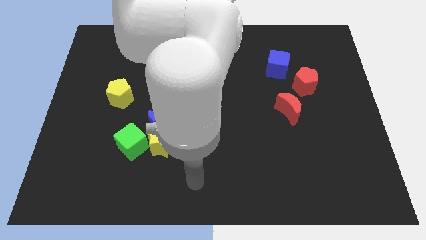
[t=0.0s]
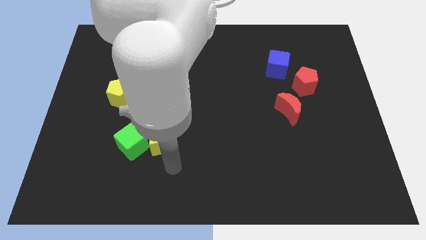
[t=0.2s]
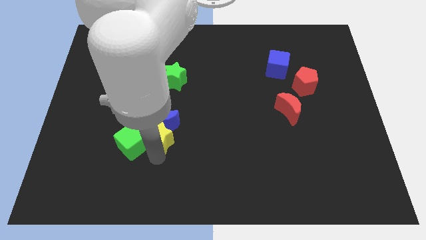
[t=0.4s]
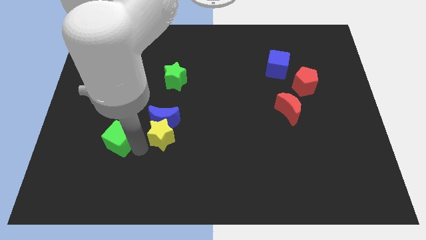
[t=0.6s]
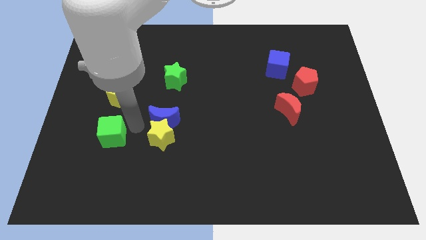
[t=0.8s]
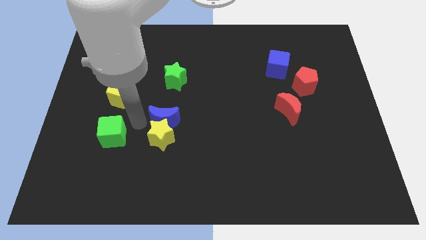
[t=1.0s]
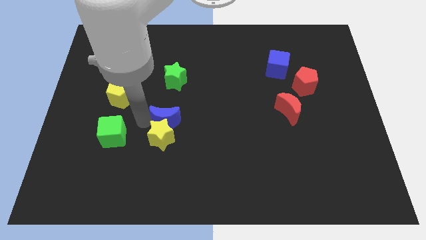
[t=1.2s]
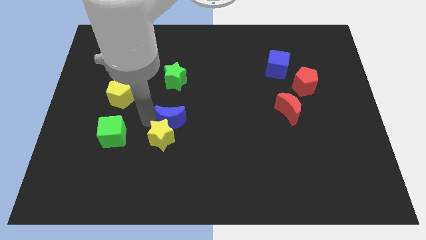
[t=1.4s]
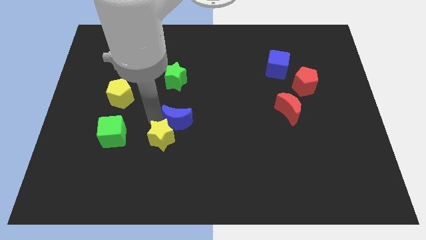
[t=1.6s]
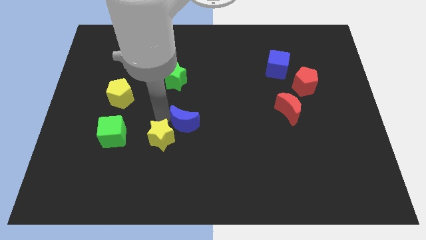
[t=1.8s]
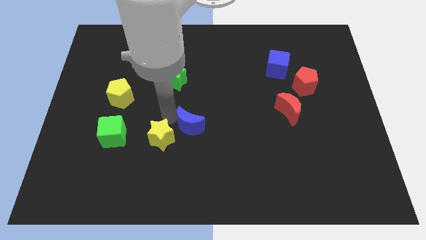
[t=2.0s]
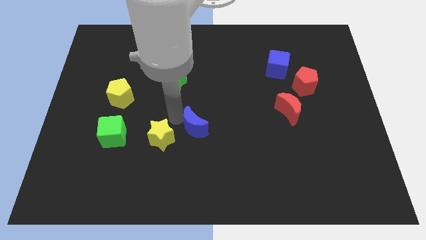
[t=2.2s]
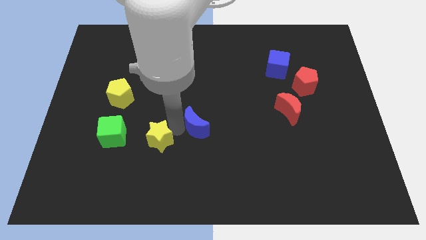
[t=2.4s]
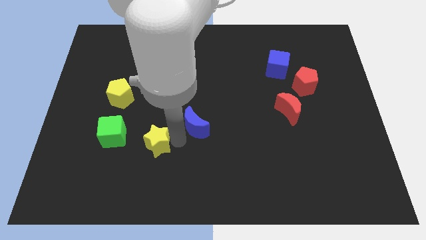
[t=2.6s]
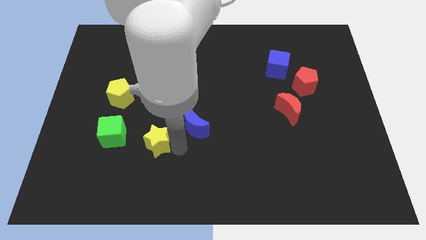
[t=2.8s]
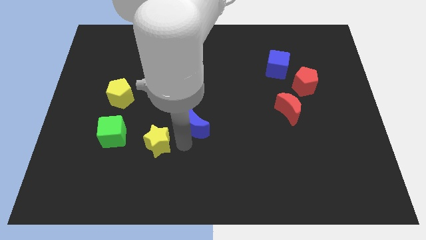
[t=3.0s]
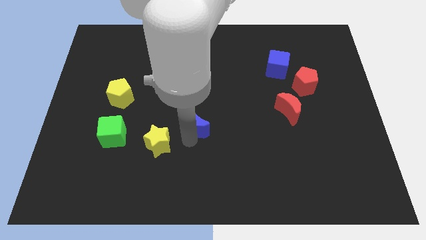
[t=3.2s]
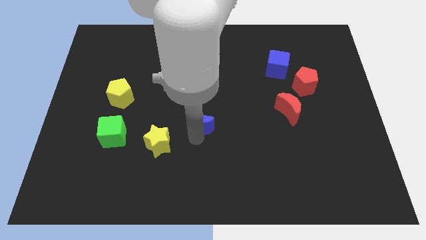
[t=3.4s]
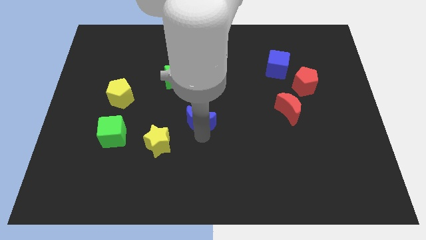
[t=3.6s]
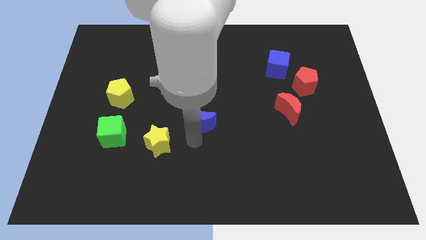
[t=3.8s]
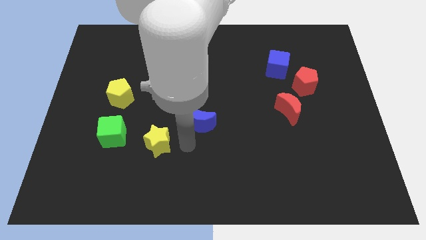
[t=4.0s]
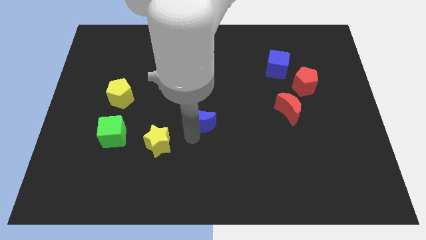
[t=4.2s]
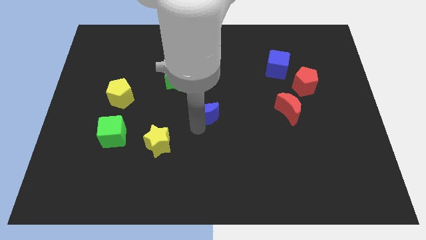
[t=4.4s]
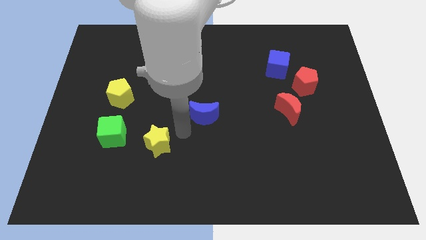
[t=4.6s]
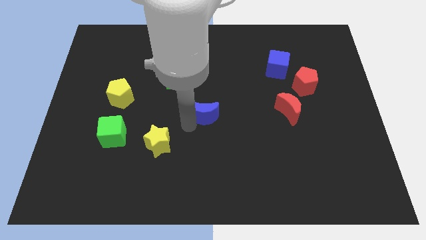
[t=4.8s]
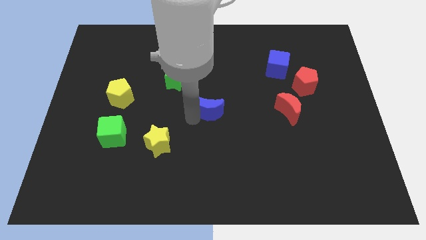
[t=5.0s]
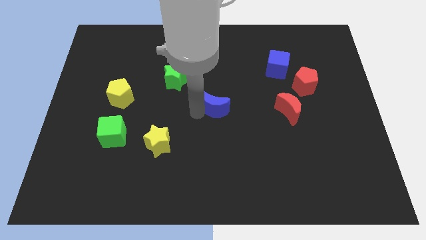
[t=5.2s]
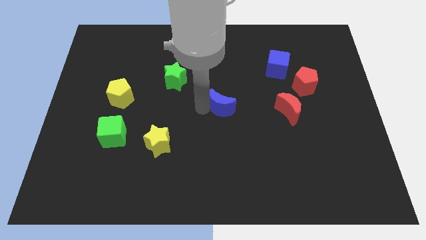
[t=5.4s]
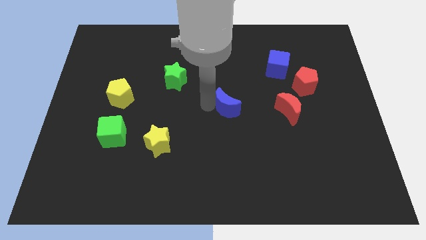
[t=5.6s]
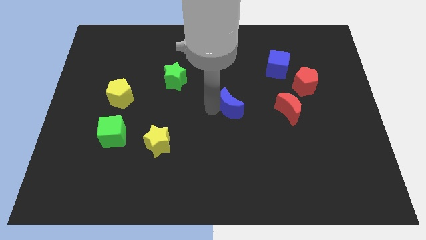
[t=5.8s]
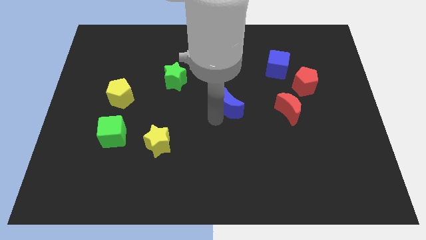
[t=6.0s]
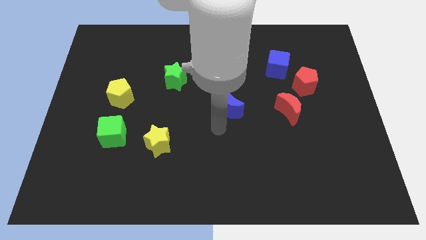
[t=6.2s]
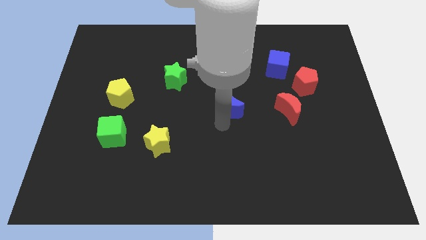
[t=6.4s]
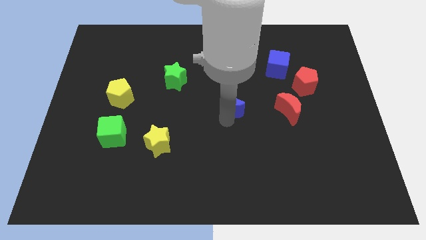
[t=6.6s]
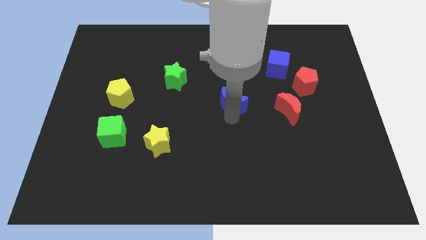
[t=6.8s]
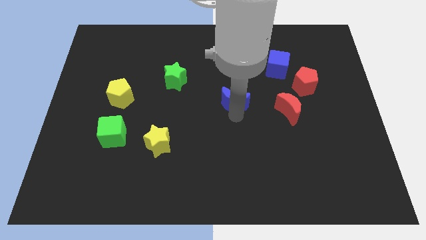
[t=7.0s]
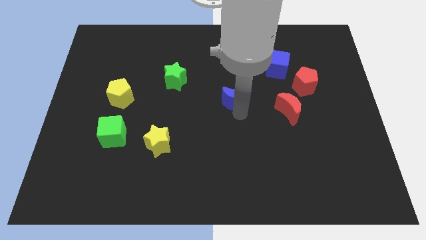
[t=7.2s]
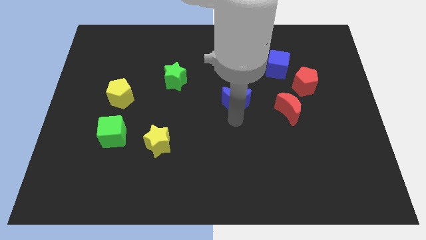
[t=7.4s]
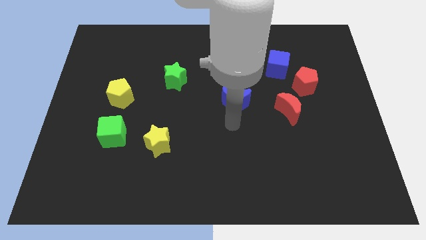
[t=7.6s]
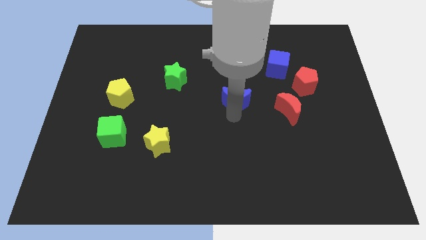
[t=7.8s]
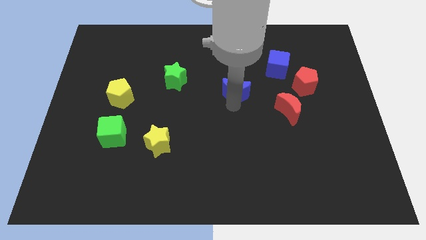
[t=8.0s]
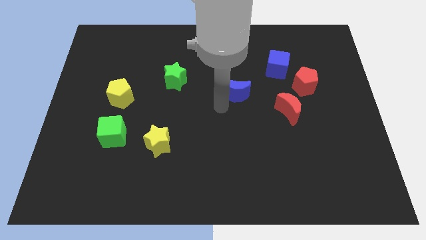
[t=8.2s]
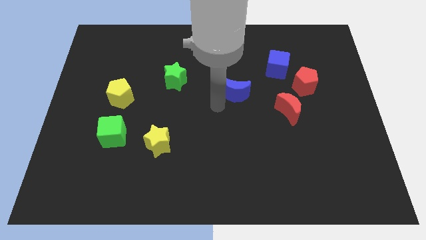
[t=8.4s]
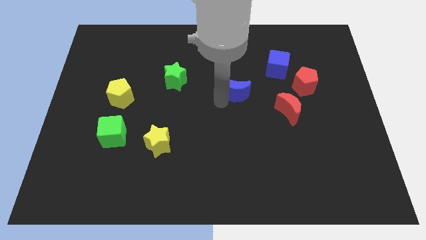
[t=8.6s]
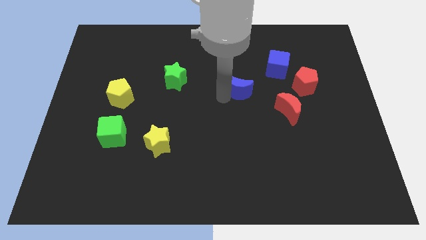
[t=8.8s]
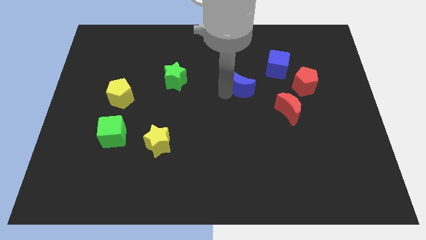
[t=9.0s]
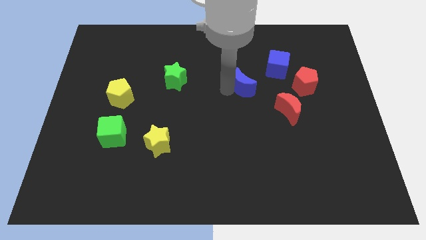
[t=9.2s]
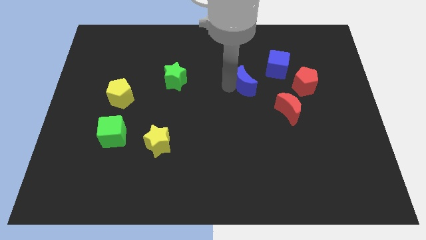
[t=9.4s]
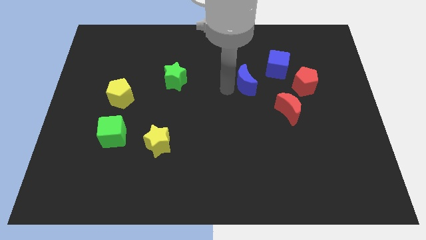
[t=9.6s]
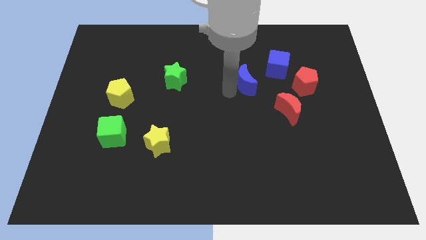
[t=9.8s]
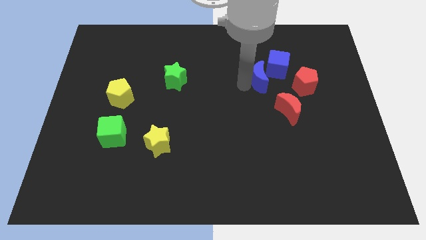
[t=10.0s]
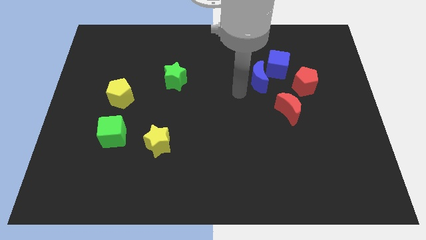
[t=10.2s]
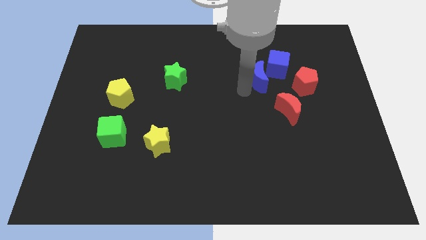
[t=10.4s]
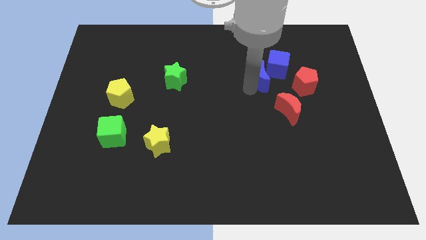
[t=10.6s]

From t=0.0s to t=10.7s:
move the blue moon close to the blue cube

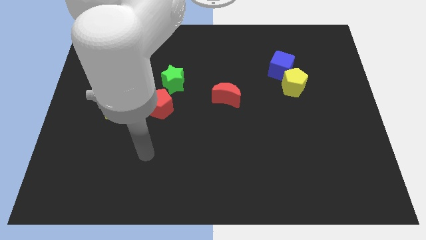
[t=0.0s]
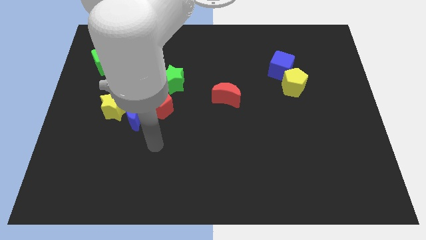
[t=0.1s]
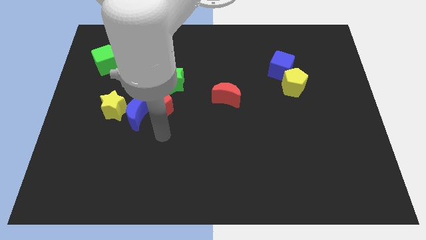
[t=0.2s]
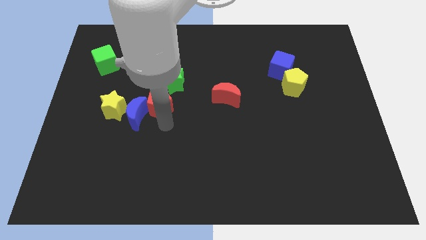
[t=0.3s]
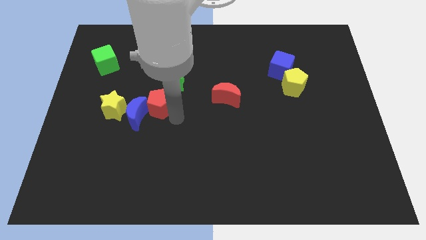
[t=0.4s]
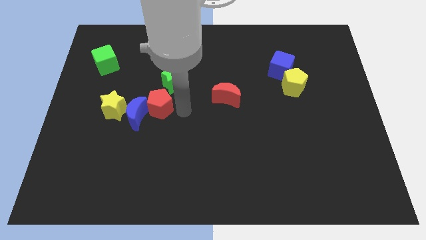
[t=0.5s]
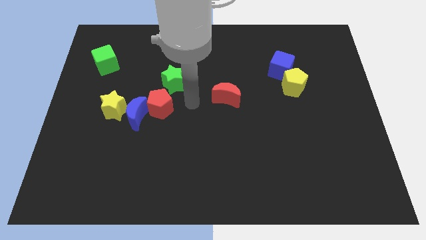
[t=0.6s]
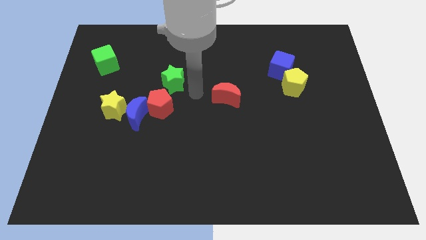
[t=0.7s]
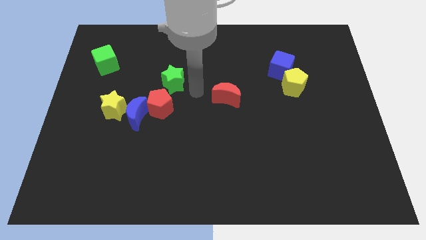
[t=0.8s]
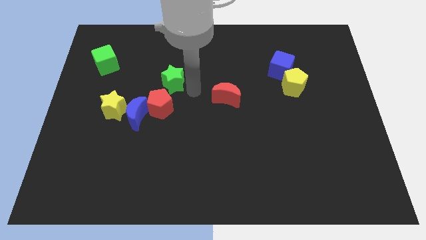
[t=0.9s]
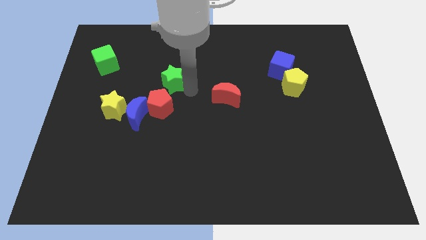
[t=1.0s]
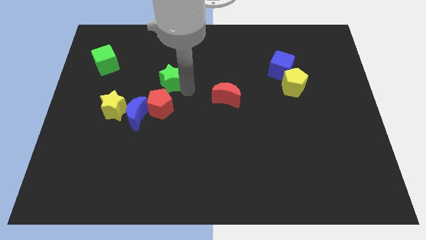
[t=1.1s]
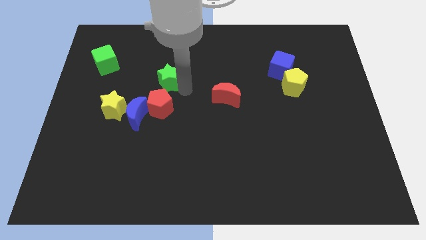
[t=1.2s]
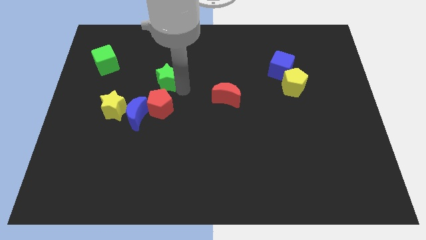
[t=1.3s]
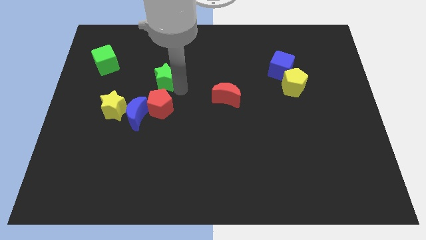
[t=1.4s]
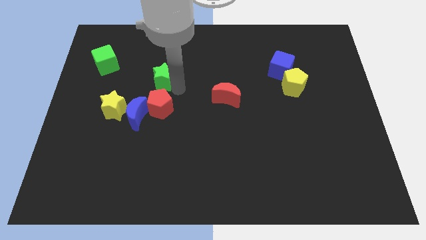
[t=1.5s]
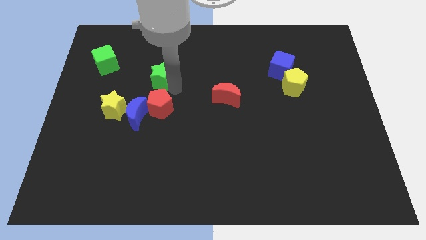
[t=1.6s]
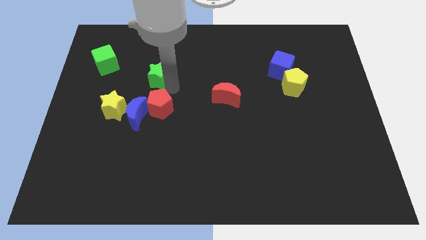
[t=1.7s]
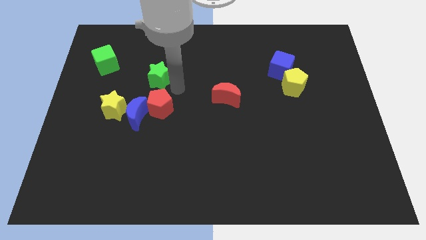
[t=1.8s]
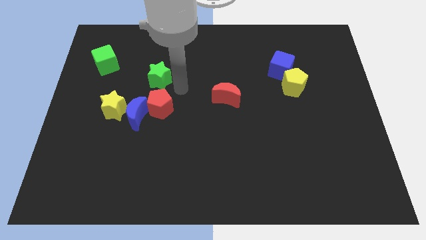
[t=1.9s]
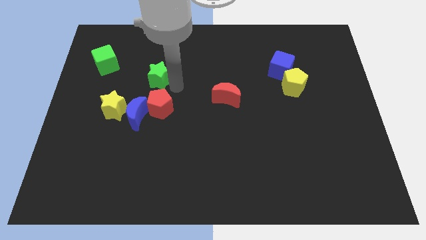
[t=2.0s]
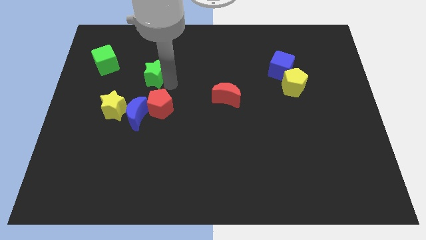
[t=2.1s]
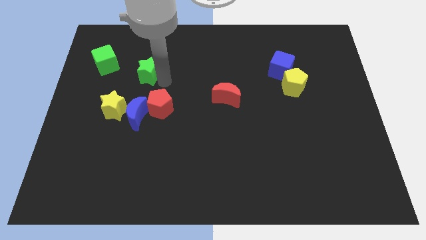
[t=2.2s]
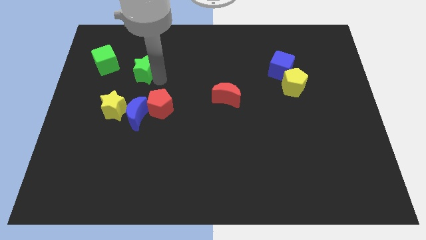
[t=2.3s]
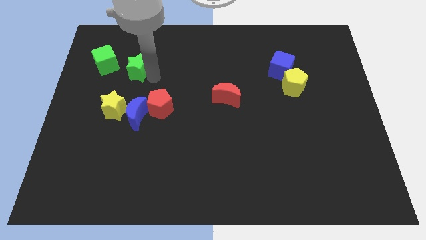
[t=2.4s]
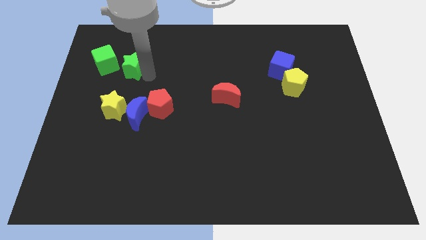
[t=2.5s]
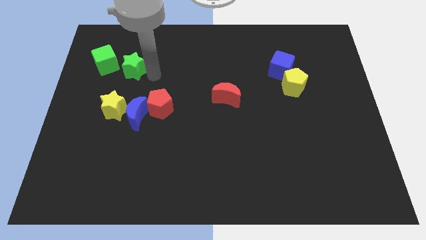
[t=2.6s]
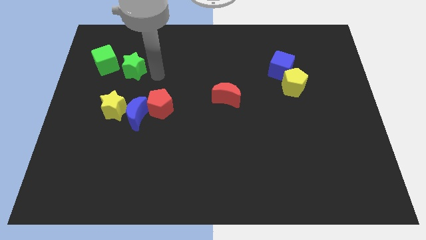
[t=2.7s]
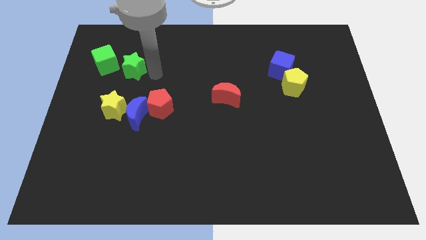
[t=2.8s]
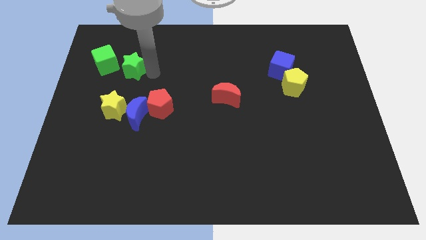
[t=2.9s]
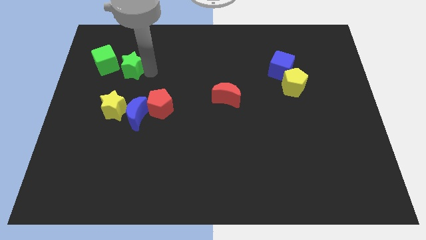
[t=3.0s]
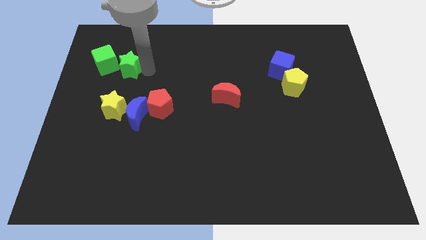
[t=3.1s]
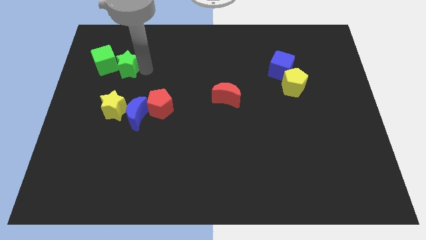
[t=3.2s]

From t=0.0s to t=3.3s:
move the green star to the green cube
